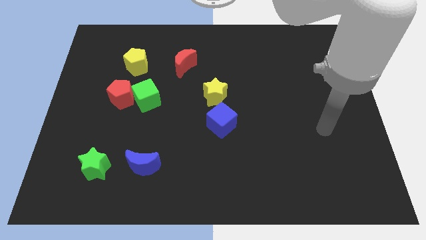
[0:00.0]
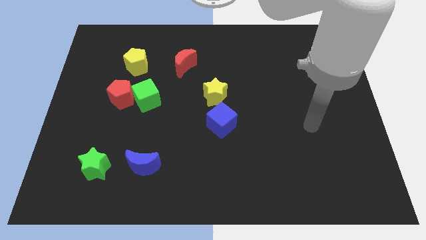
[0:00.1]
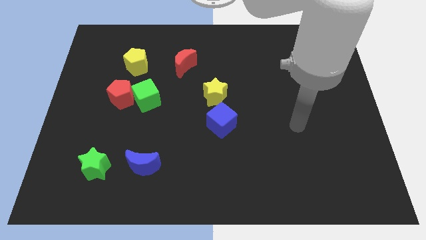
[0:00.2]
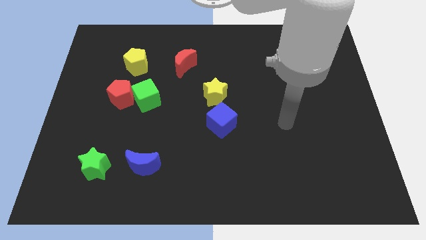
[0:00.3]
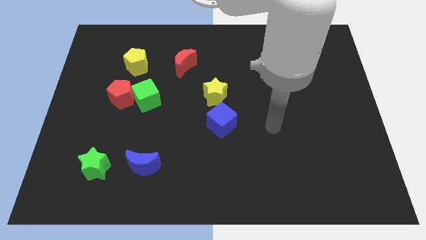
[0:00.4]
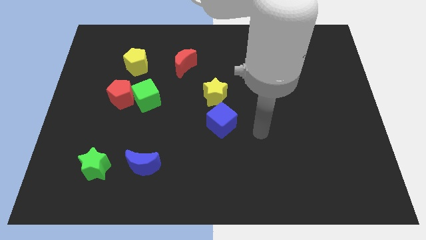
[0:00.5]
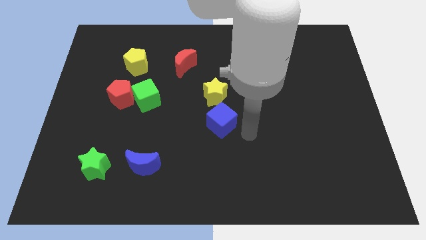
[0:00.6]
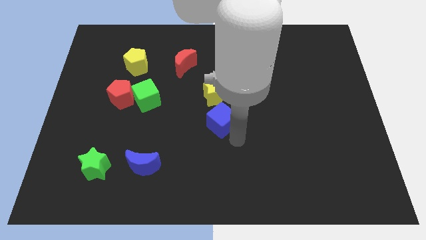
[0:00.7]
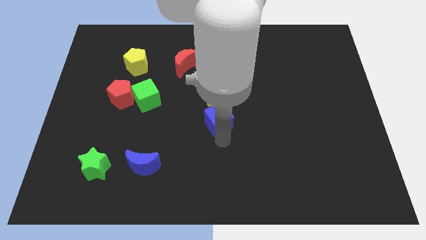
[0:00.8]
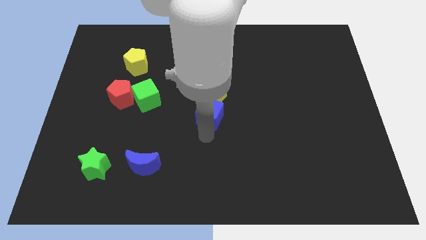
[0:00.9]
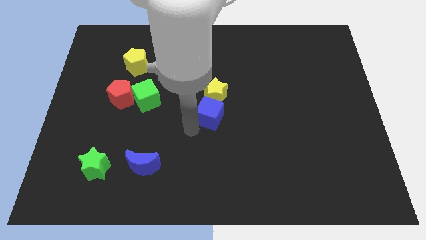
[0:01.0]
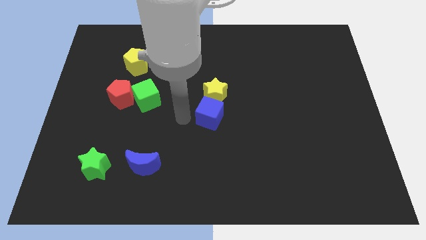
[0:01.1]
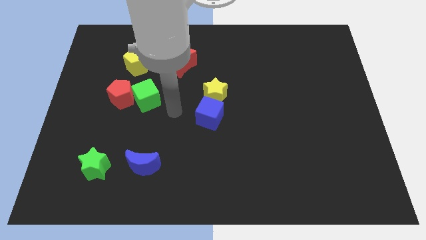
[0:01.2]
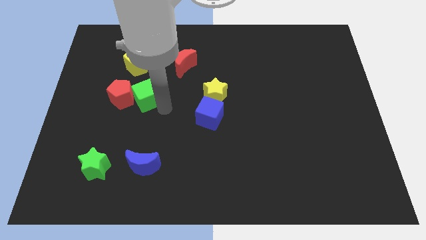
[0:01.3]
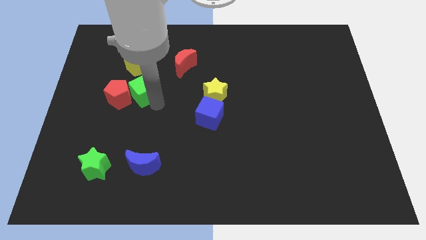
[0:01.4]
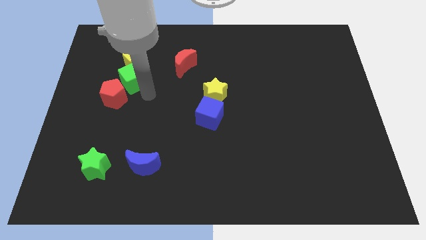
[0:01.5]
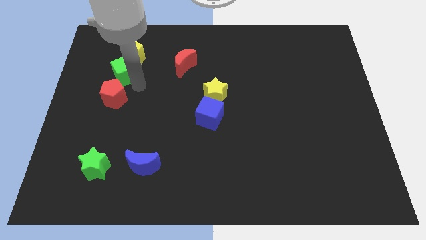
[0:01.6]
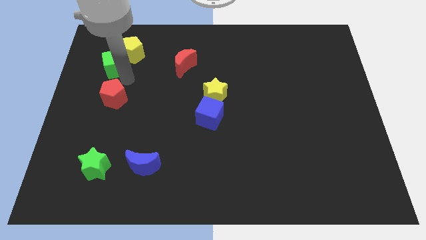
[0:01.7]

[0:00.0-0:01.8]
move the red pentagon away from the green cube

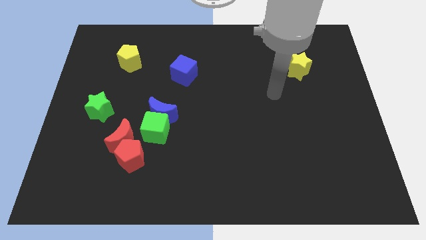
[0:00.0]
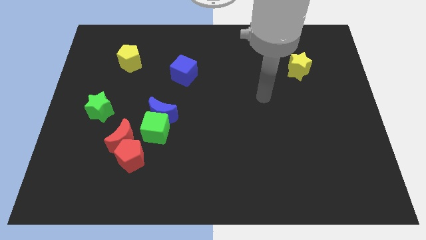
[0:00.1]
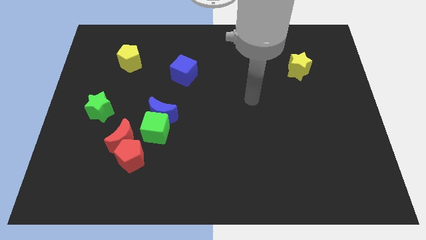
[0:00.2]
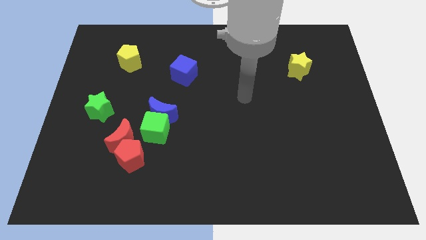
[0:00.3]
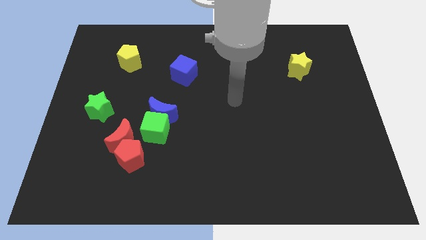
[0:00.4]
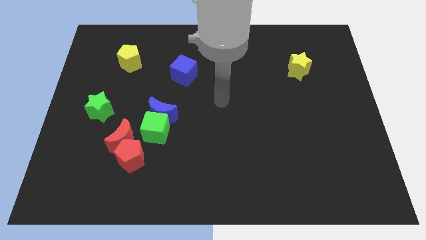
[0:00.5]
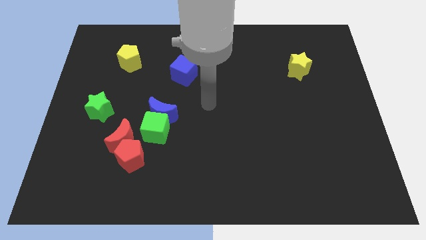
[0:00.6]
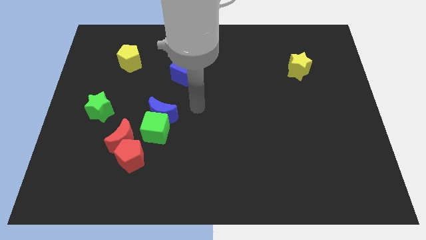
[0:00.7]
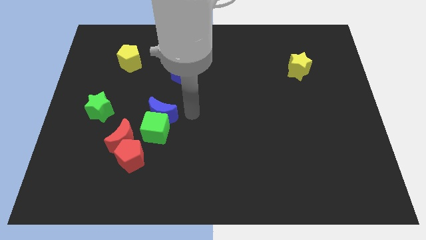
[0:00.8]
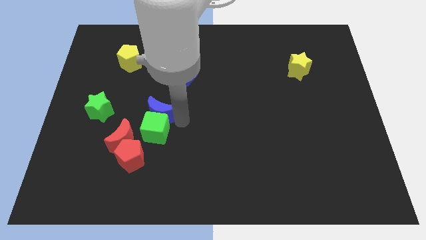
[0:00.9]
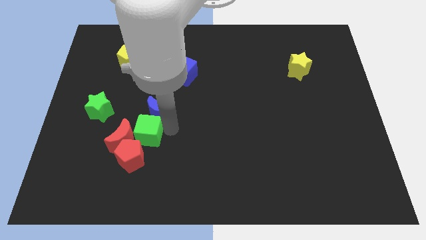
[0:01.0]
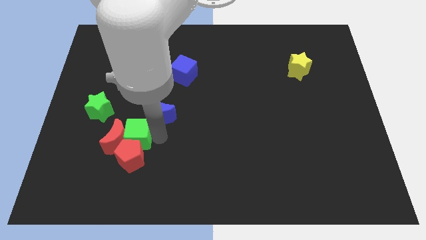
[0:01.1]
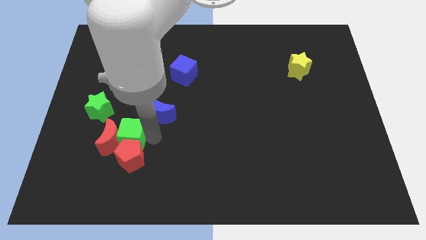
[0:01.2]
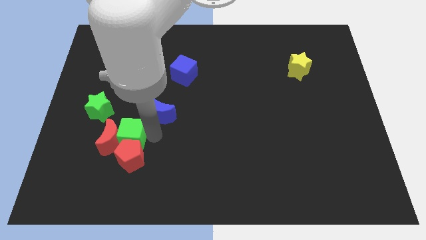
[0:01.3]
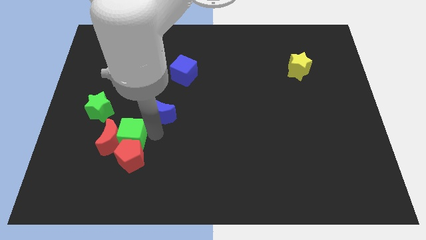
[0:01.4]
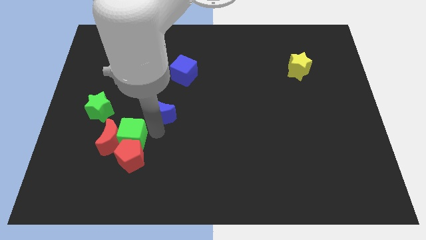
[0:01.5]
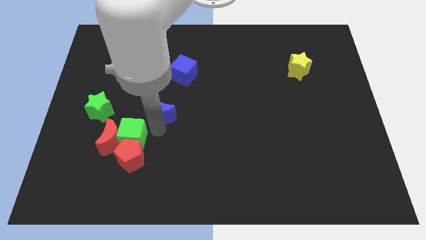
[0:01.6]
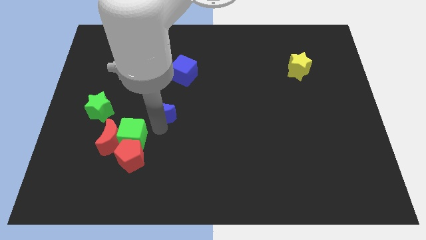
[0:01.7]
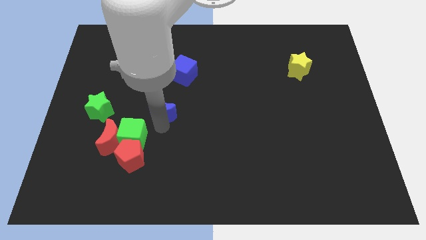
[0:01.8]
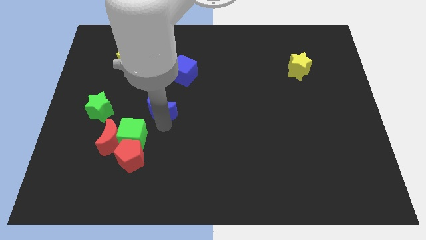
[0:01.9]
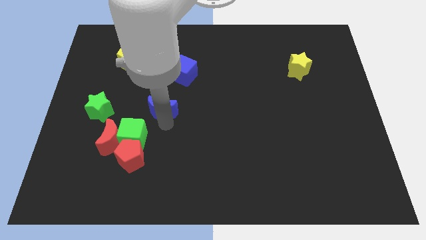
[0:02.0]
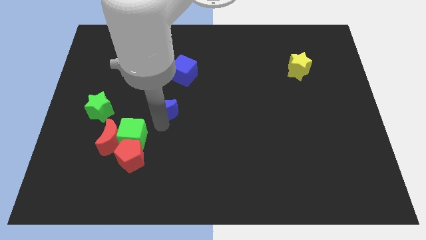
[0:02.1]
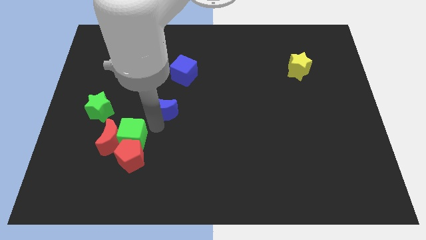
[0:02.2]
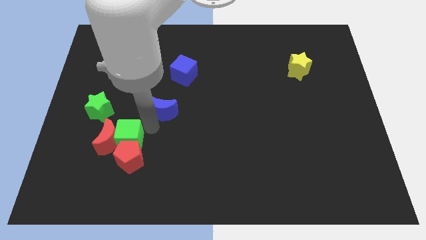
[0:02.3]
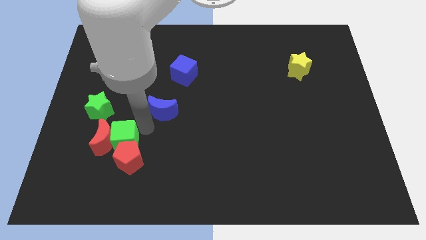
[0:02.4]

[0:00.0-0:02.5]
pull the blue moon apart from the green cube

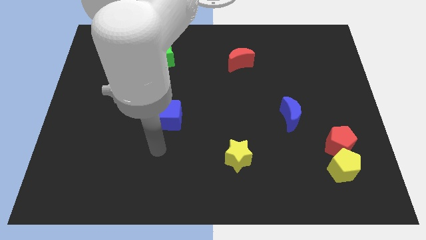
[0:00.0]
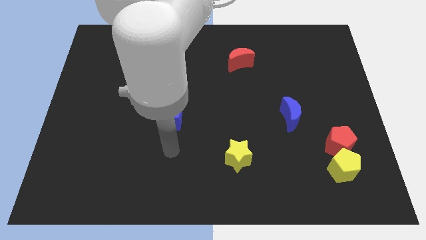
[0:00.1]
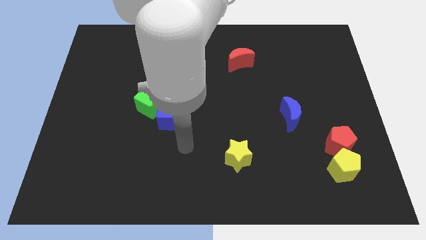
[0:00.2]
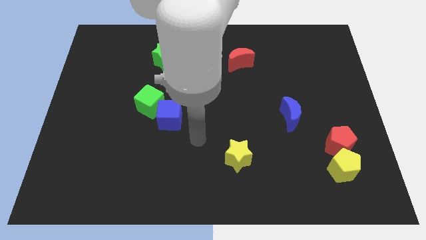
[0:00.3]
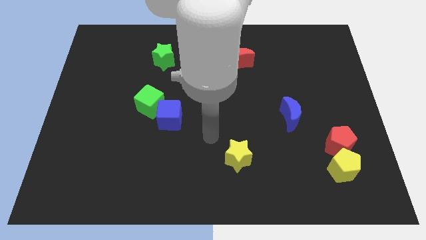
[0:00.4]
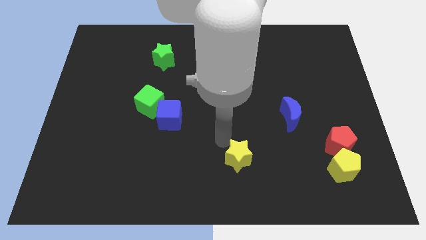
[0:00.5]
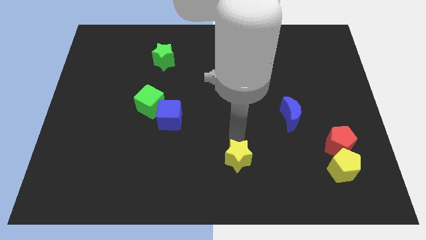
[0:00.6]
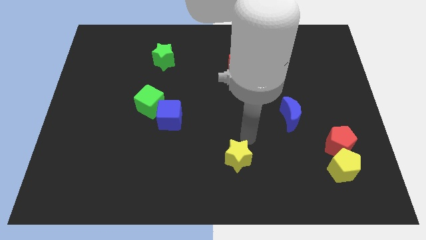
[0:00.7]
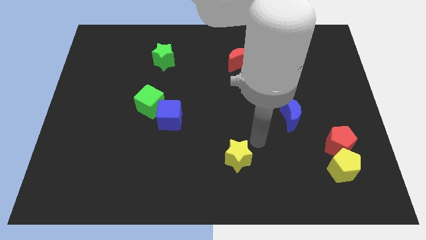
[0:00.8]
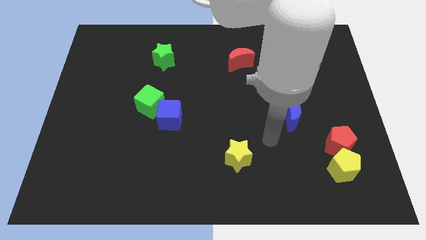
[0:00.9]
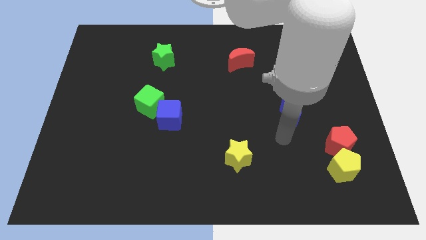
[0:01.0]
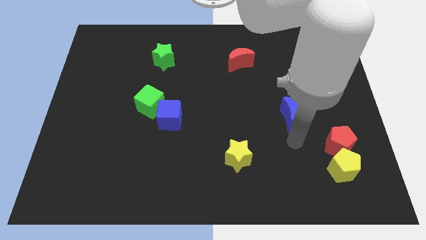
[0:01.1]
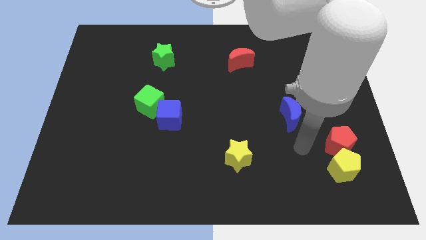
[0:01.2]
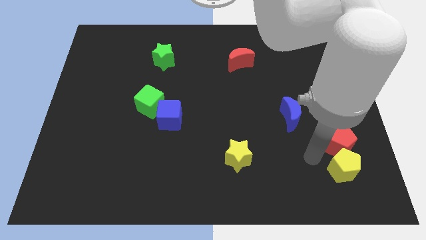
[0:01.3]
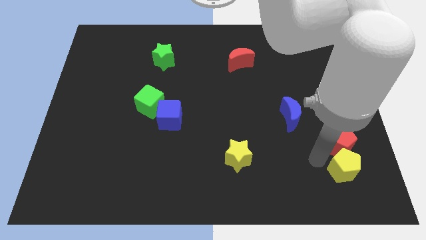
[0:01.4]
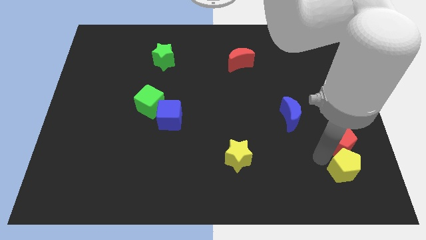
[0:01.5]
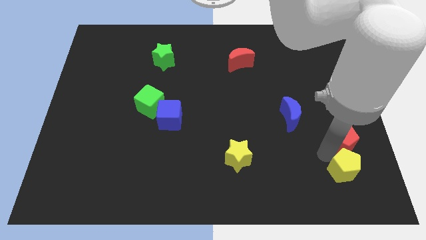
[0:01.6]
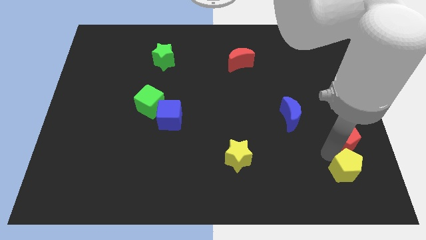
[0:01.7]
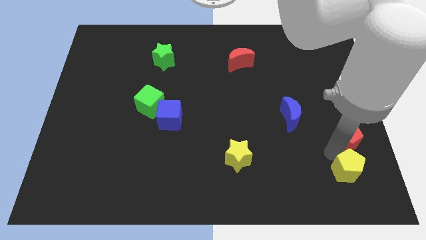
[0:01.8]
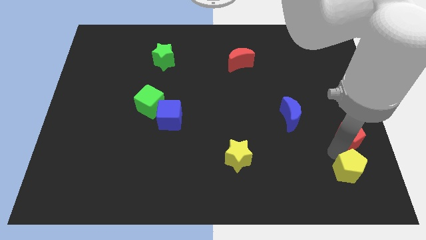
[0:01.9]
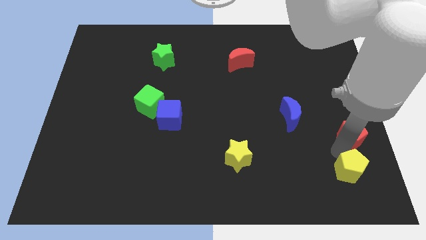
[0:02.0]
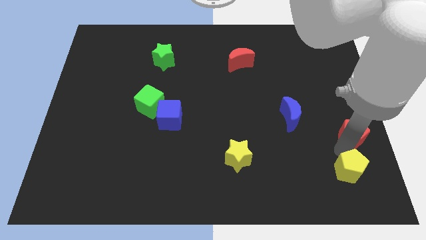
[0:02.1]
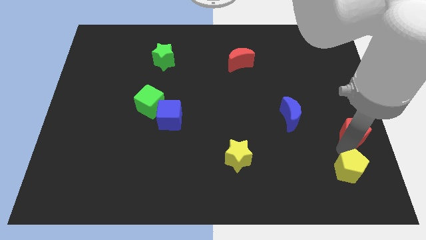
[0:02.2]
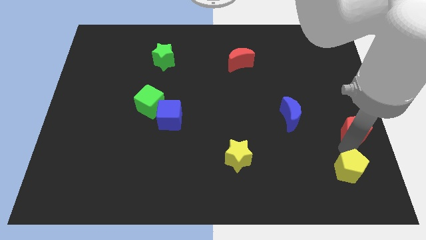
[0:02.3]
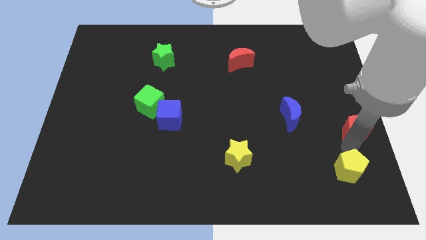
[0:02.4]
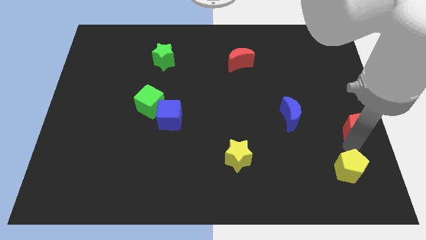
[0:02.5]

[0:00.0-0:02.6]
pull the red pentagon apart from the yellow pentagon

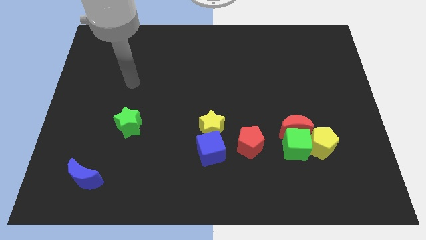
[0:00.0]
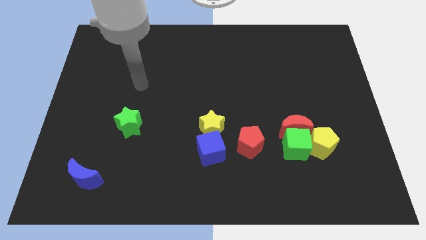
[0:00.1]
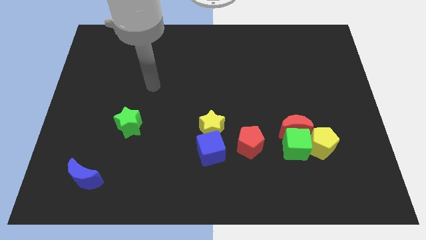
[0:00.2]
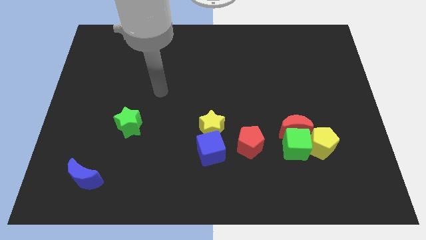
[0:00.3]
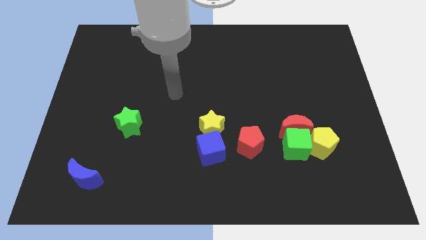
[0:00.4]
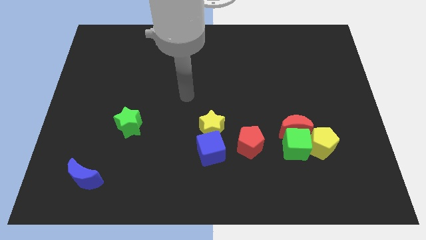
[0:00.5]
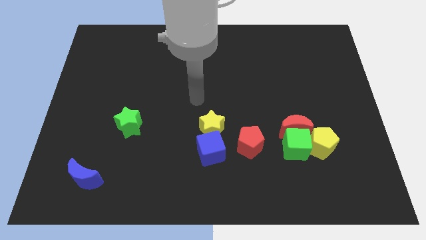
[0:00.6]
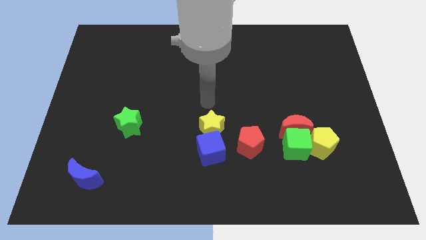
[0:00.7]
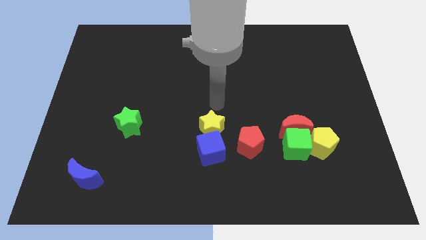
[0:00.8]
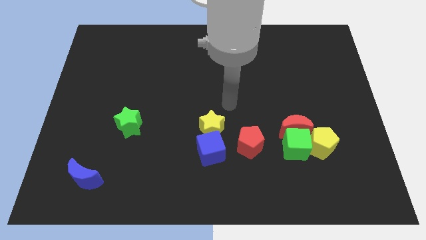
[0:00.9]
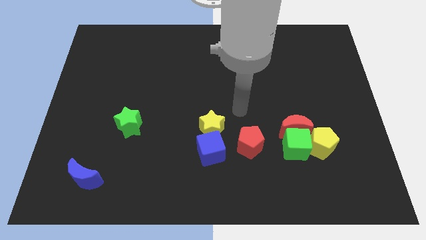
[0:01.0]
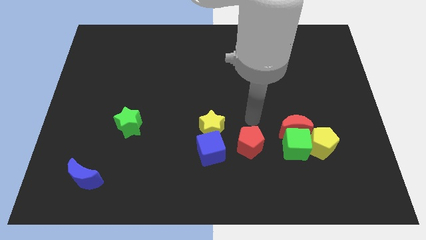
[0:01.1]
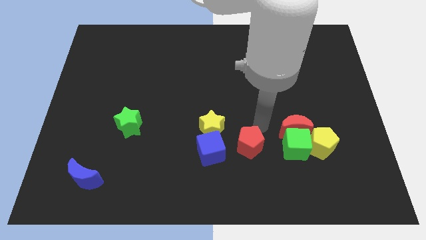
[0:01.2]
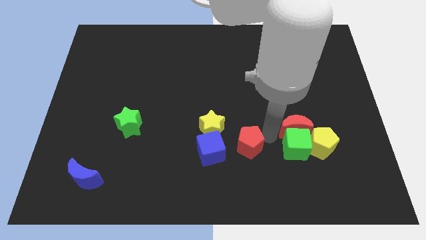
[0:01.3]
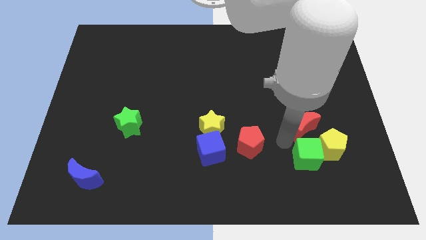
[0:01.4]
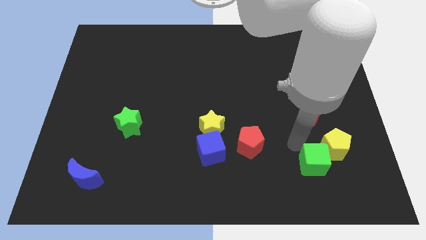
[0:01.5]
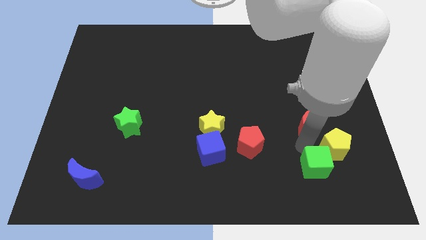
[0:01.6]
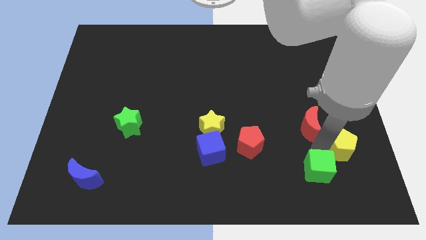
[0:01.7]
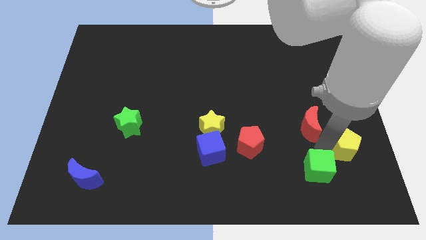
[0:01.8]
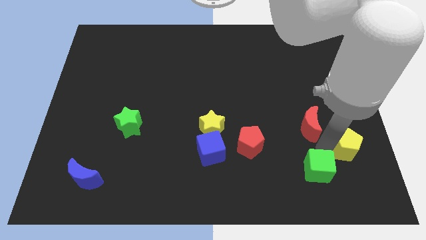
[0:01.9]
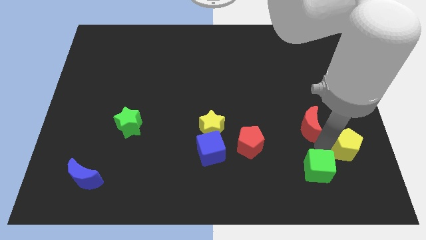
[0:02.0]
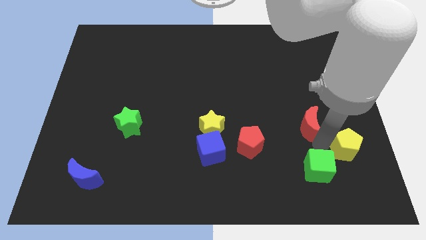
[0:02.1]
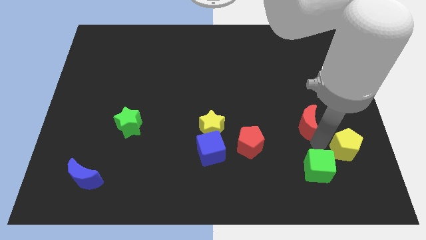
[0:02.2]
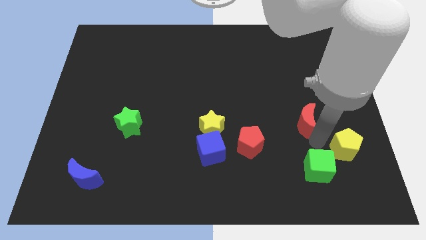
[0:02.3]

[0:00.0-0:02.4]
separate the red moon from the green cube and yellow pentagon

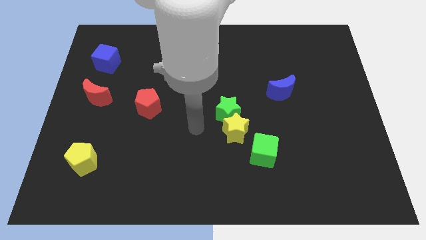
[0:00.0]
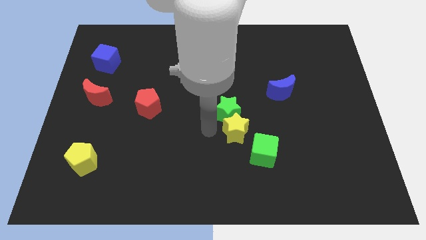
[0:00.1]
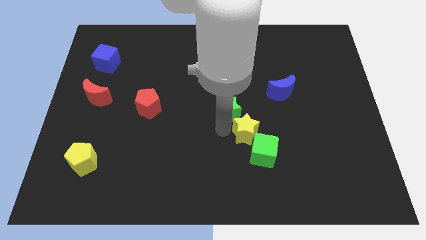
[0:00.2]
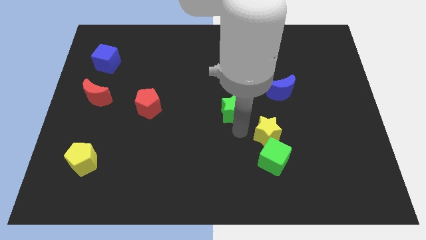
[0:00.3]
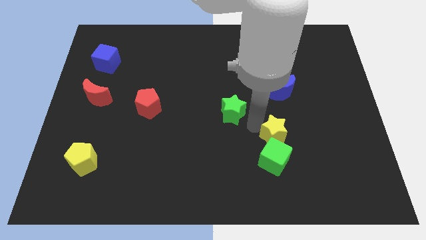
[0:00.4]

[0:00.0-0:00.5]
move the green star away from the yellow star
